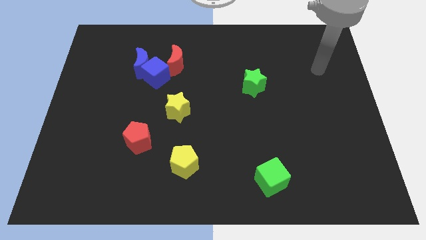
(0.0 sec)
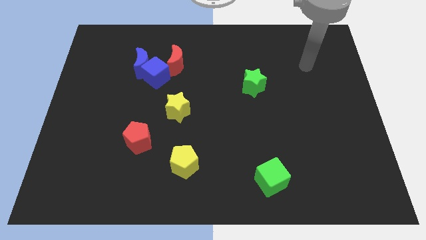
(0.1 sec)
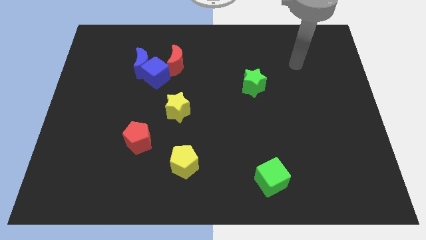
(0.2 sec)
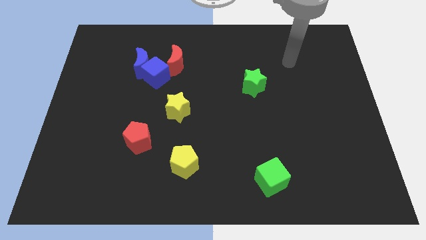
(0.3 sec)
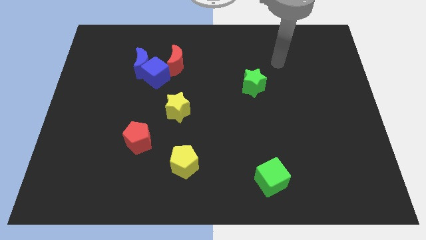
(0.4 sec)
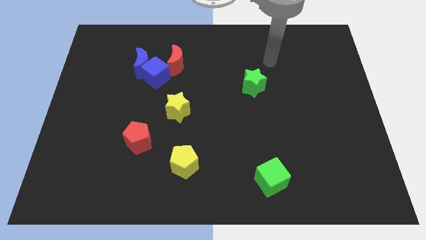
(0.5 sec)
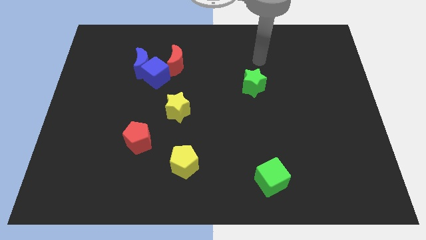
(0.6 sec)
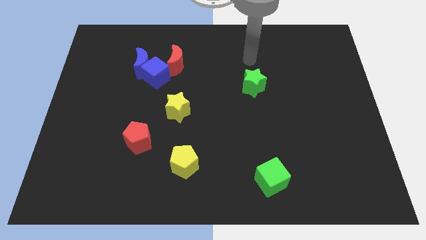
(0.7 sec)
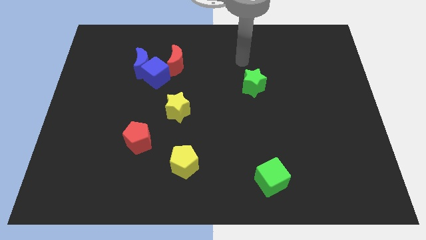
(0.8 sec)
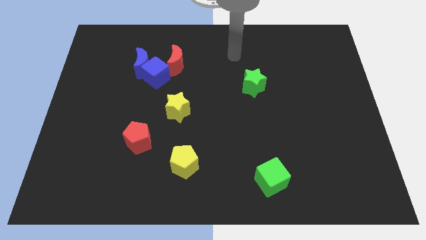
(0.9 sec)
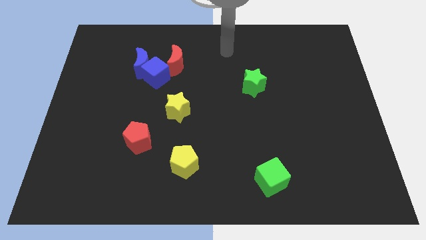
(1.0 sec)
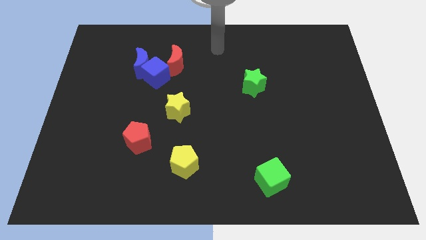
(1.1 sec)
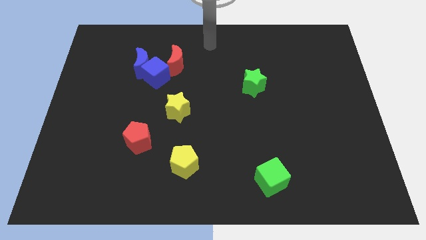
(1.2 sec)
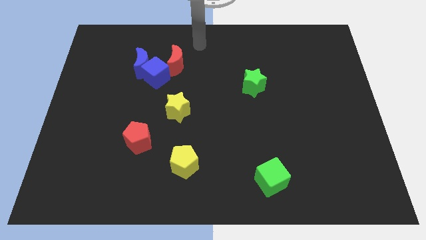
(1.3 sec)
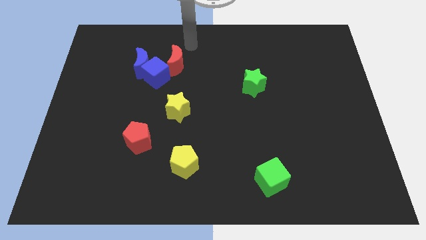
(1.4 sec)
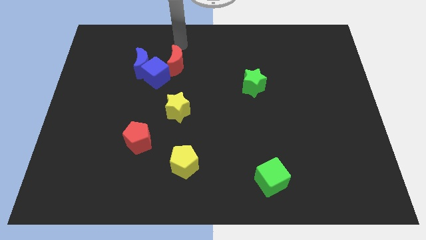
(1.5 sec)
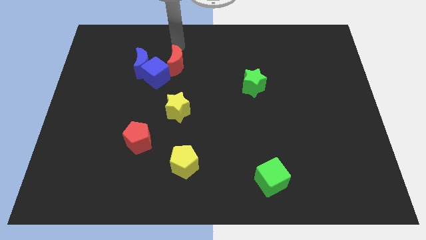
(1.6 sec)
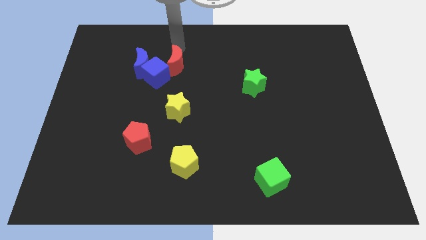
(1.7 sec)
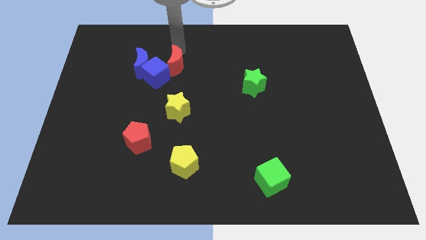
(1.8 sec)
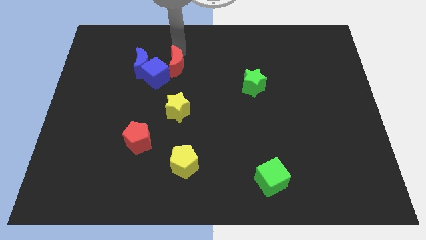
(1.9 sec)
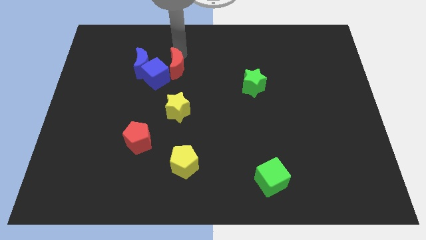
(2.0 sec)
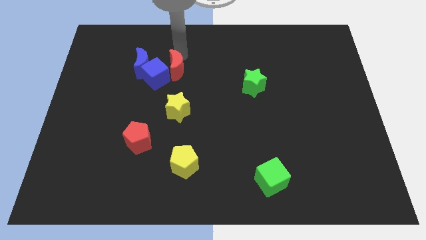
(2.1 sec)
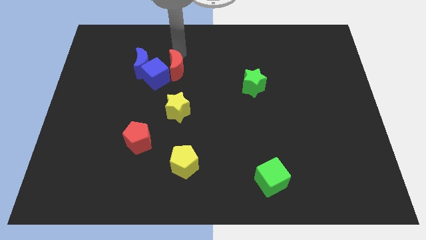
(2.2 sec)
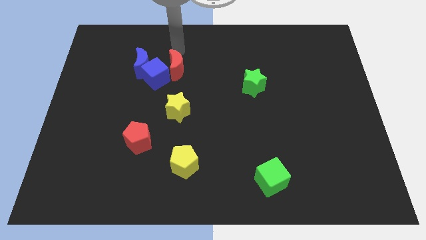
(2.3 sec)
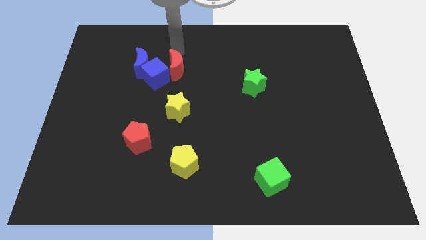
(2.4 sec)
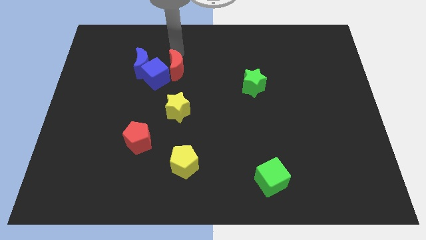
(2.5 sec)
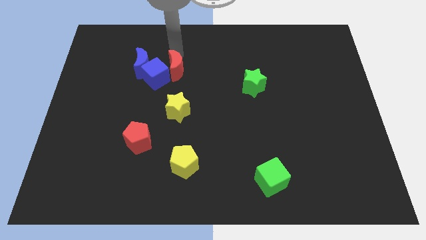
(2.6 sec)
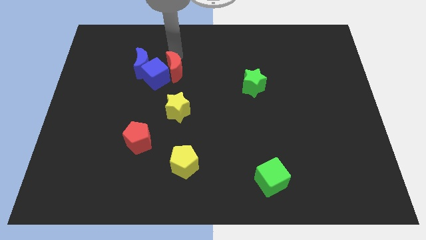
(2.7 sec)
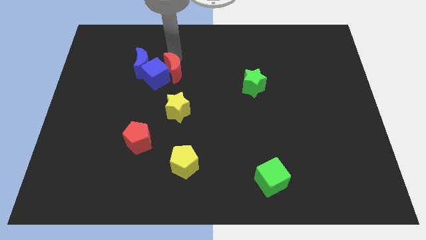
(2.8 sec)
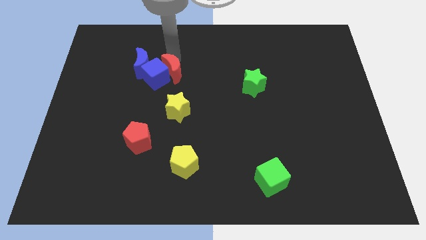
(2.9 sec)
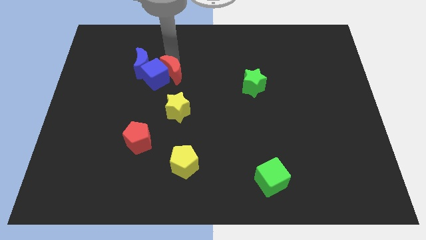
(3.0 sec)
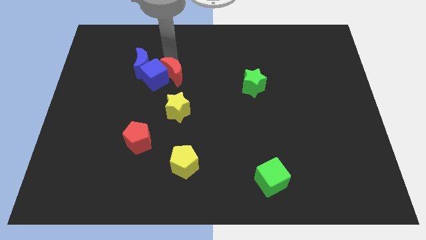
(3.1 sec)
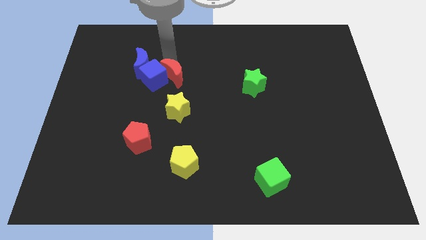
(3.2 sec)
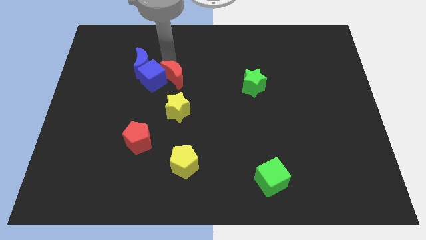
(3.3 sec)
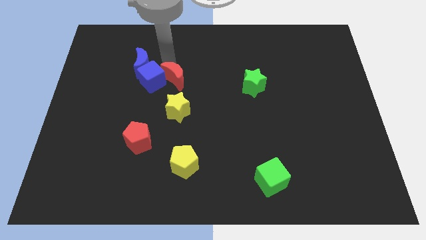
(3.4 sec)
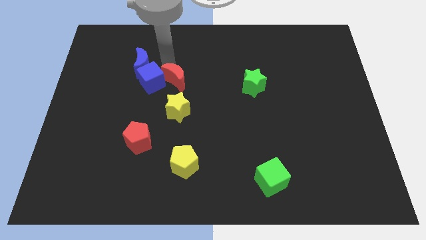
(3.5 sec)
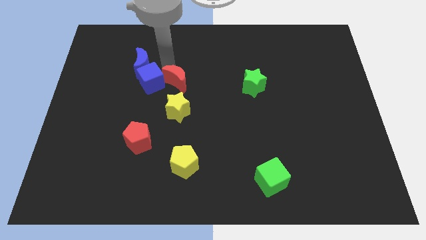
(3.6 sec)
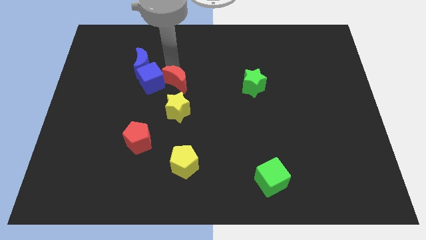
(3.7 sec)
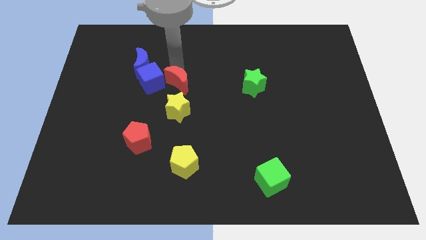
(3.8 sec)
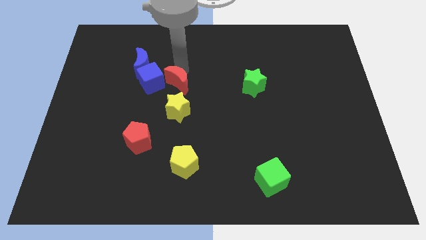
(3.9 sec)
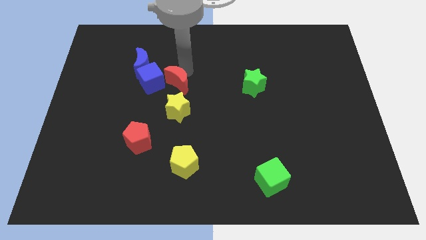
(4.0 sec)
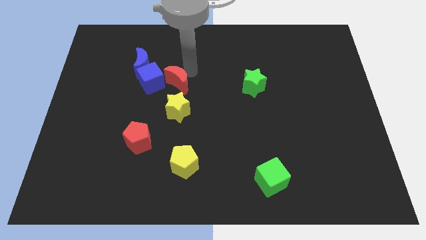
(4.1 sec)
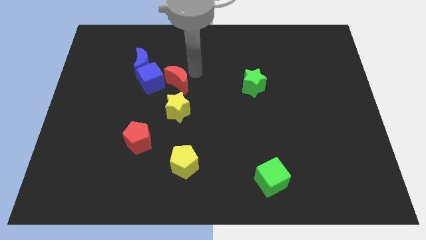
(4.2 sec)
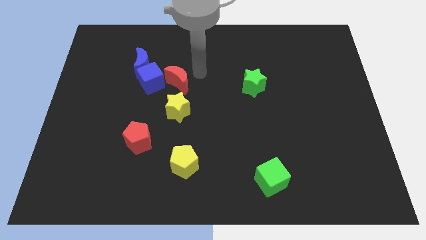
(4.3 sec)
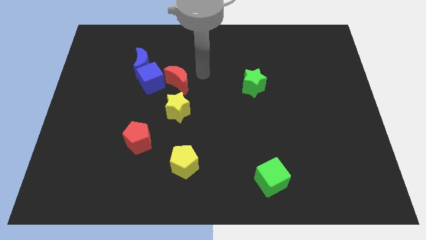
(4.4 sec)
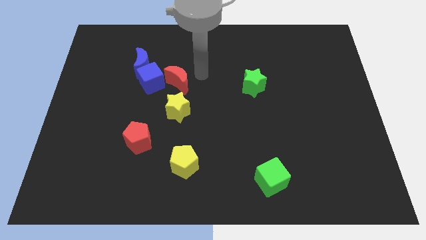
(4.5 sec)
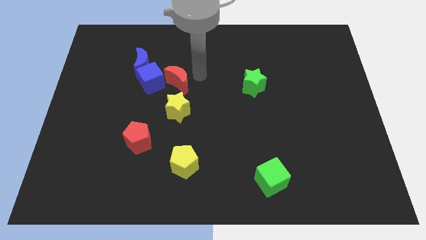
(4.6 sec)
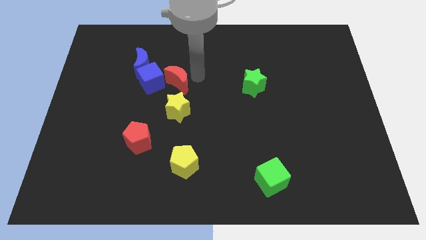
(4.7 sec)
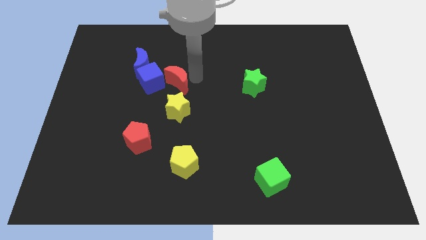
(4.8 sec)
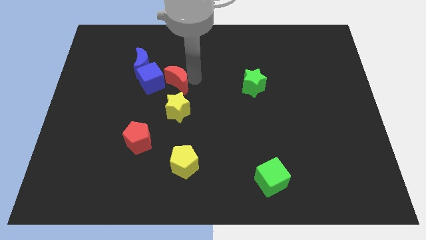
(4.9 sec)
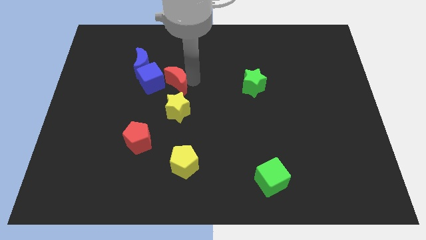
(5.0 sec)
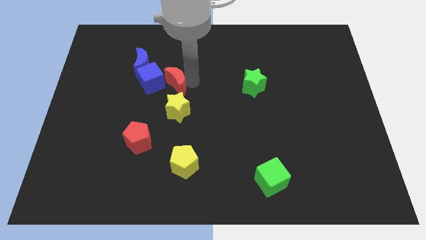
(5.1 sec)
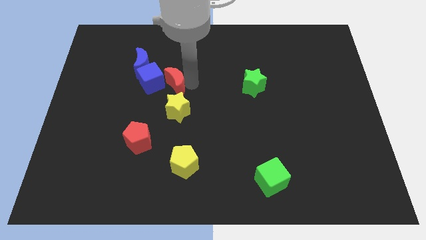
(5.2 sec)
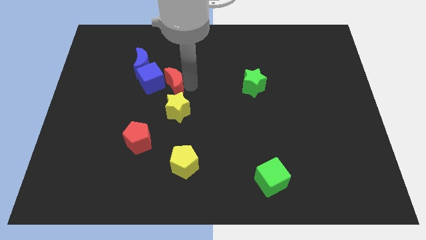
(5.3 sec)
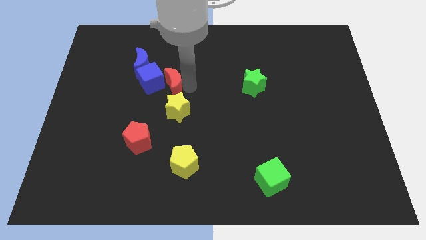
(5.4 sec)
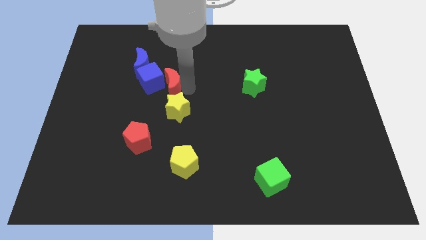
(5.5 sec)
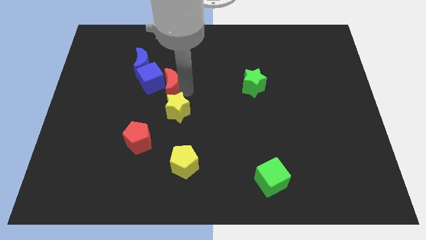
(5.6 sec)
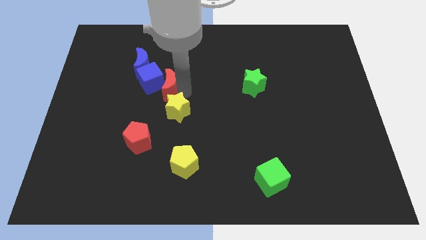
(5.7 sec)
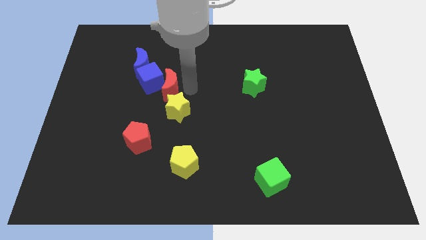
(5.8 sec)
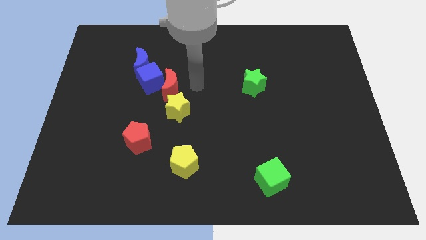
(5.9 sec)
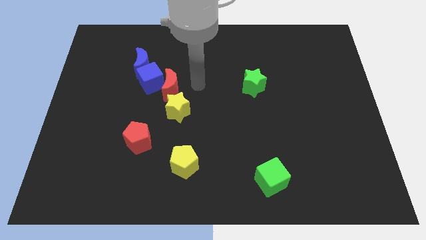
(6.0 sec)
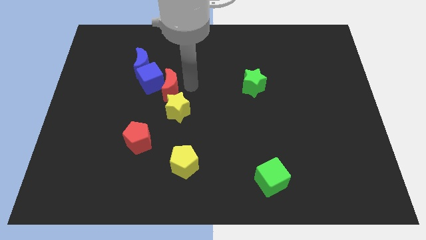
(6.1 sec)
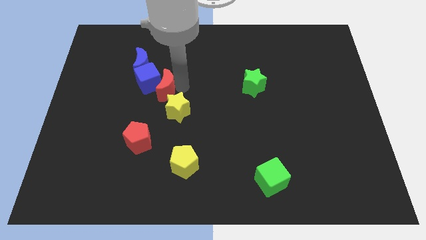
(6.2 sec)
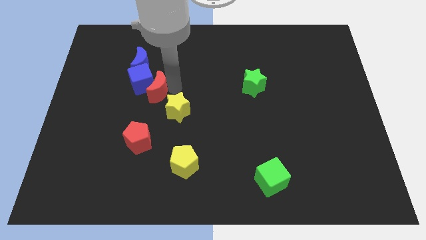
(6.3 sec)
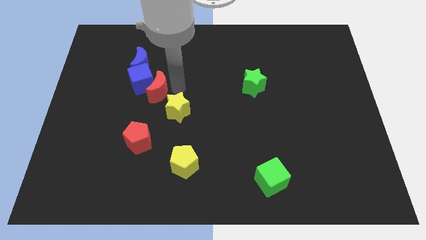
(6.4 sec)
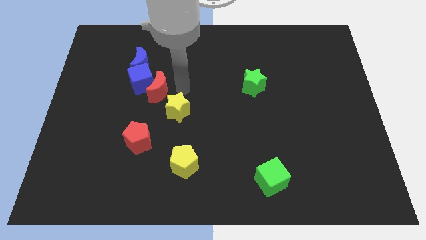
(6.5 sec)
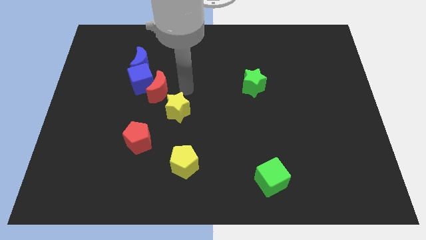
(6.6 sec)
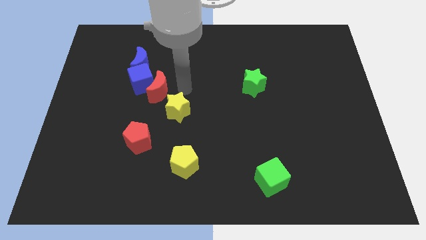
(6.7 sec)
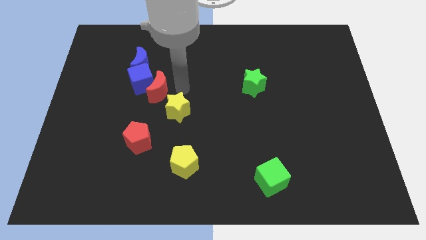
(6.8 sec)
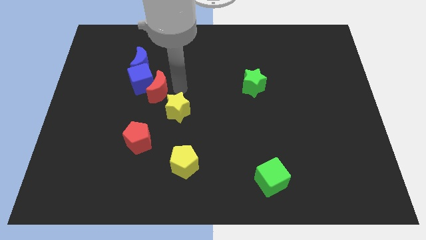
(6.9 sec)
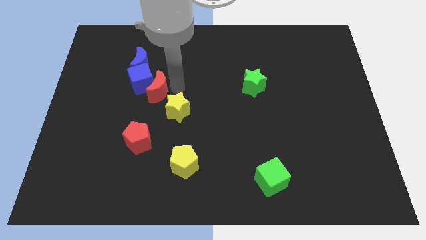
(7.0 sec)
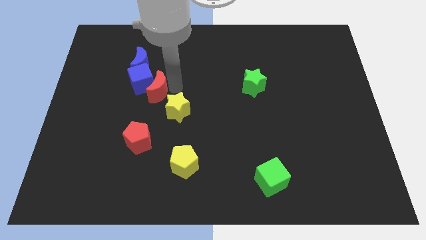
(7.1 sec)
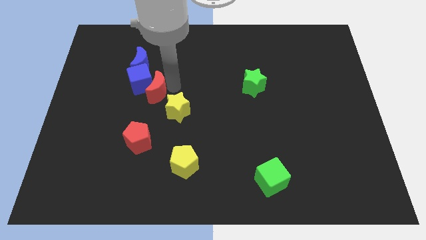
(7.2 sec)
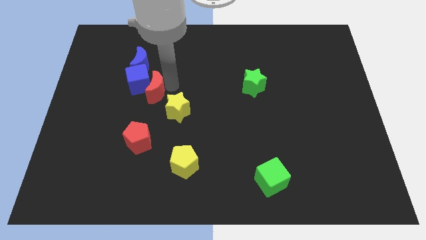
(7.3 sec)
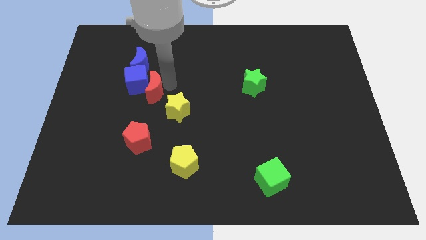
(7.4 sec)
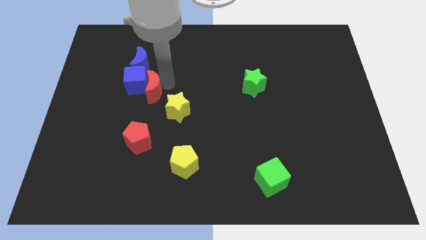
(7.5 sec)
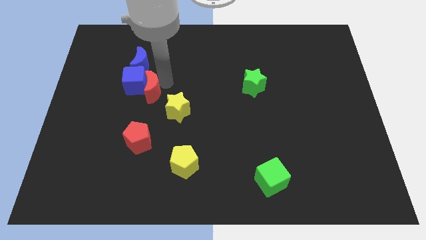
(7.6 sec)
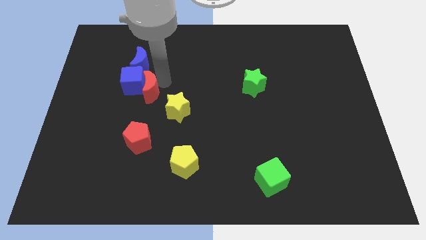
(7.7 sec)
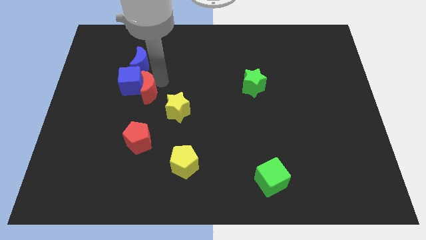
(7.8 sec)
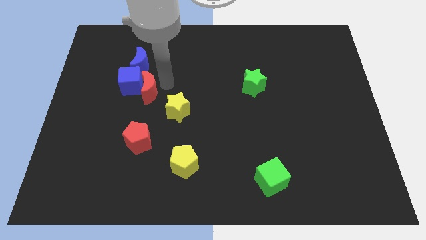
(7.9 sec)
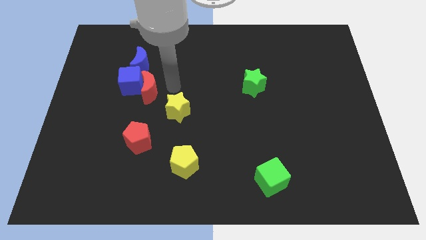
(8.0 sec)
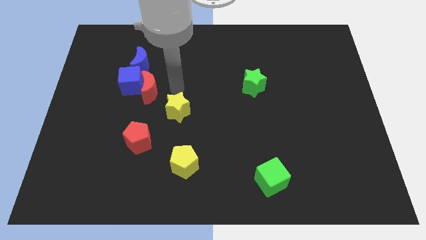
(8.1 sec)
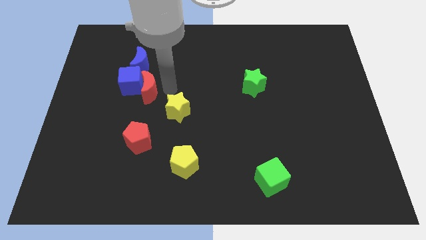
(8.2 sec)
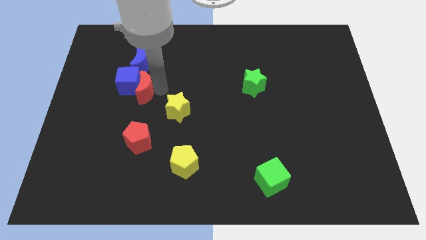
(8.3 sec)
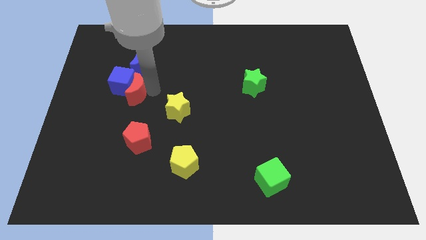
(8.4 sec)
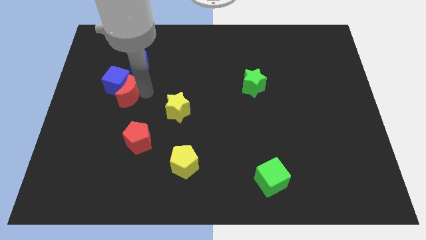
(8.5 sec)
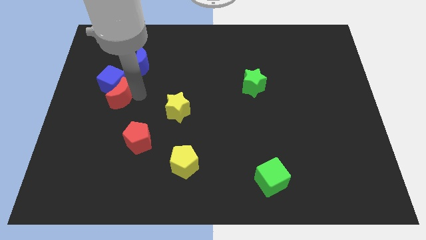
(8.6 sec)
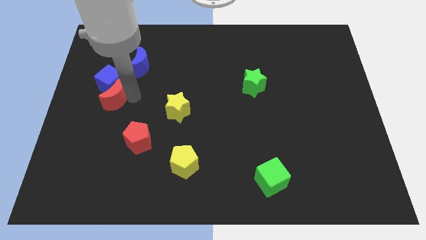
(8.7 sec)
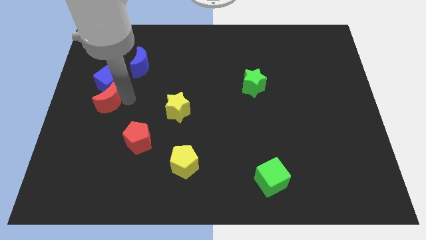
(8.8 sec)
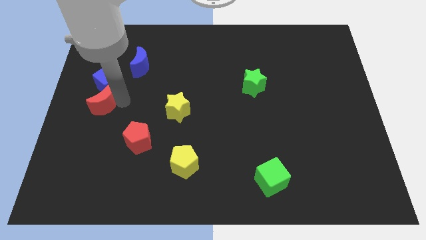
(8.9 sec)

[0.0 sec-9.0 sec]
put the red moon to the left side
